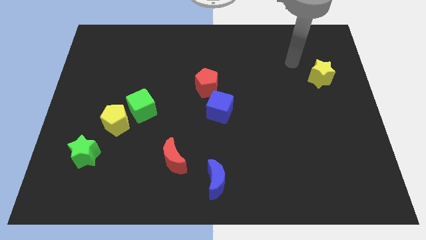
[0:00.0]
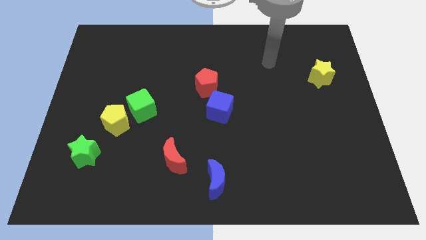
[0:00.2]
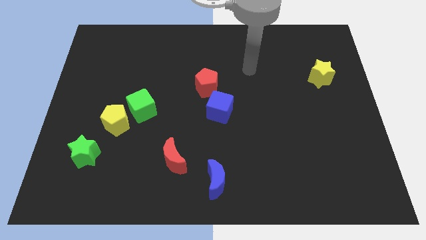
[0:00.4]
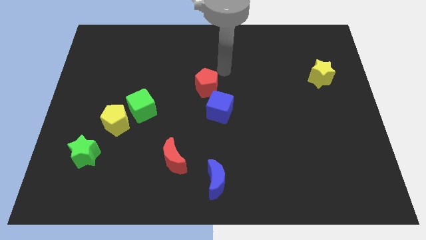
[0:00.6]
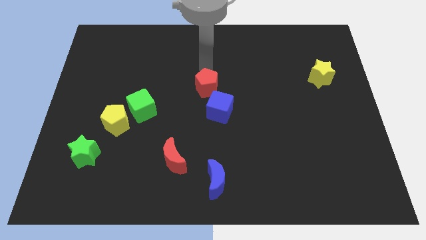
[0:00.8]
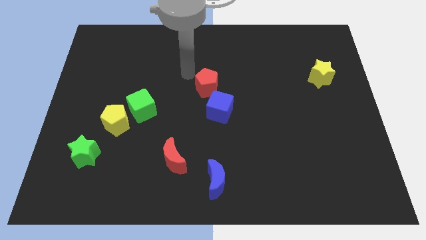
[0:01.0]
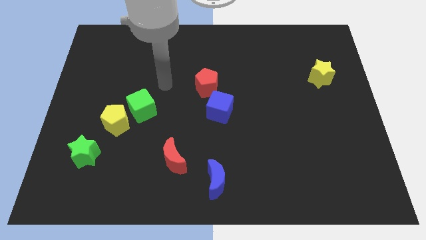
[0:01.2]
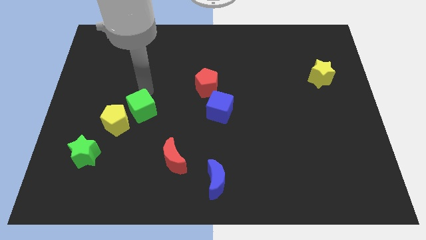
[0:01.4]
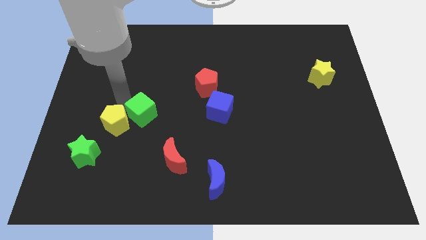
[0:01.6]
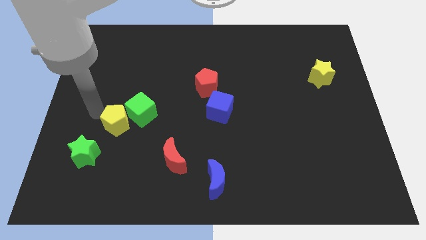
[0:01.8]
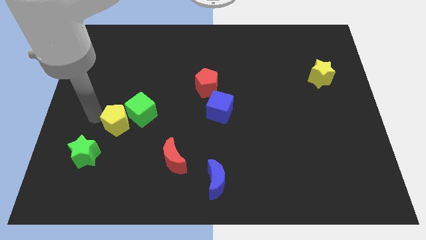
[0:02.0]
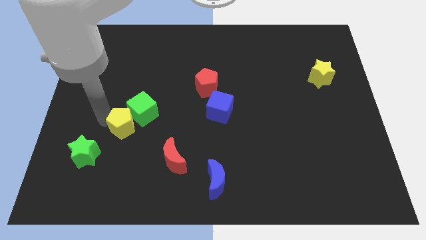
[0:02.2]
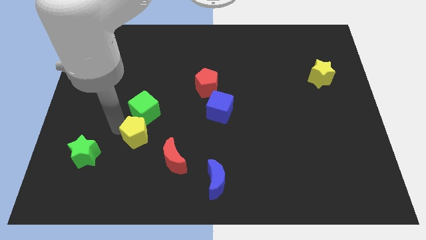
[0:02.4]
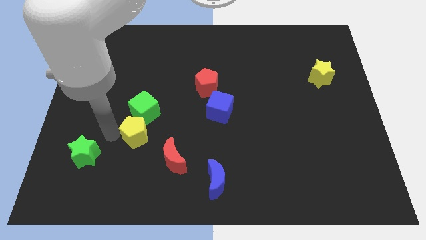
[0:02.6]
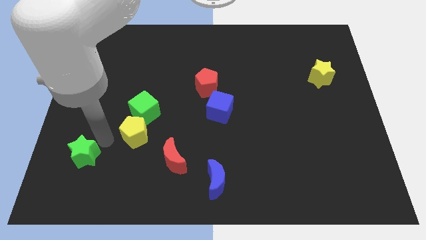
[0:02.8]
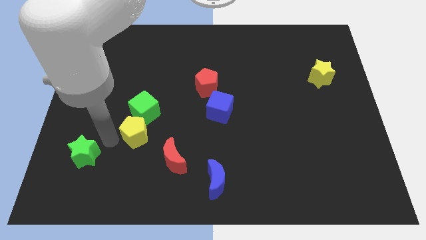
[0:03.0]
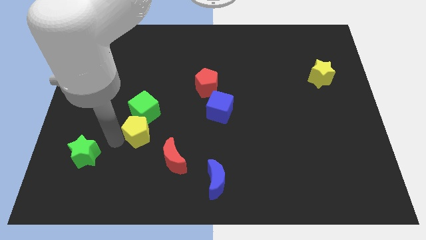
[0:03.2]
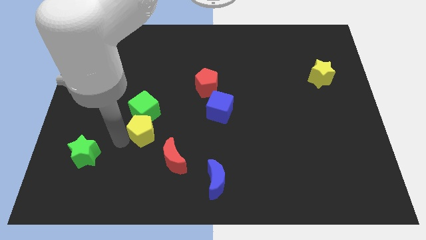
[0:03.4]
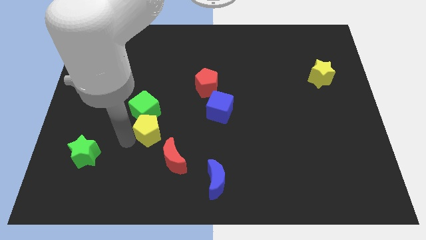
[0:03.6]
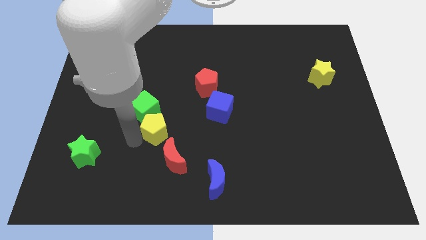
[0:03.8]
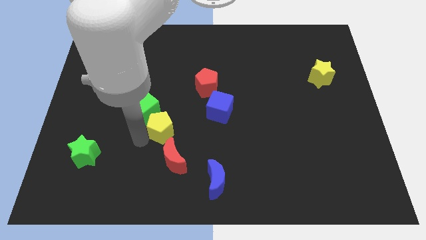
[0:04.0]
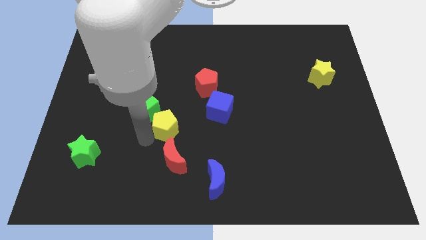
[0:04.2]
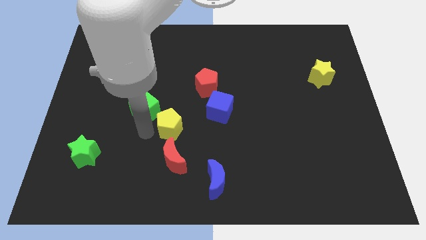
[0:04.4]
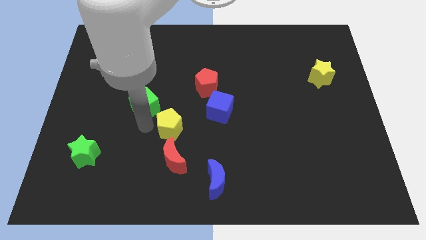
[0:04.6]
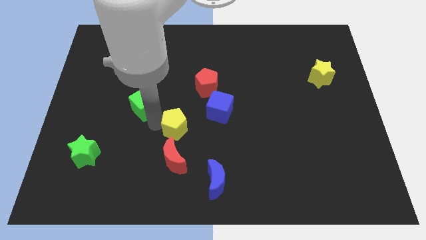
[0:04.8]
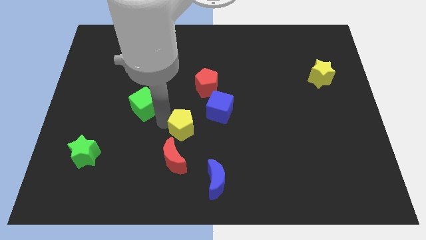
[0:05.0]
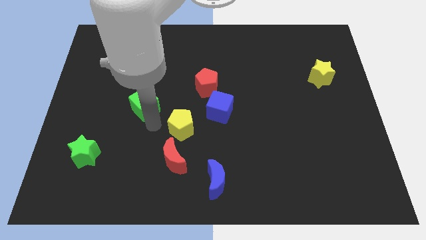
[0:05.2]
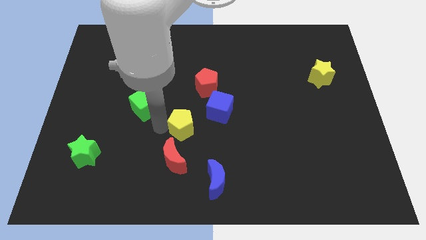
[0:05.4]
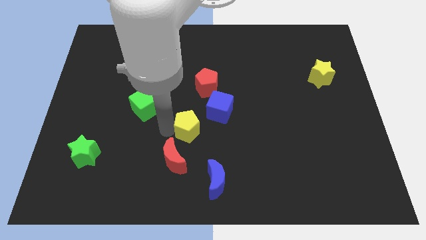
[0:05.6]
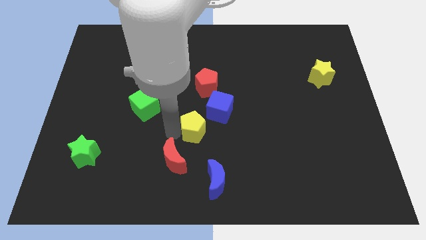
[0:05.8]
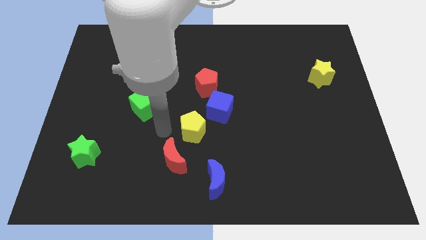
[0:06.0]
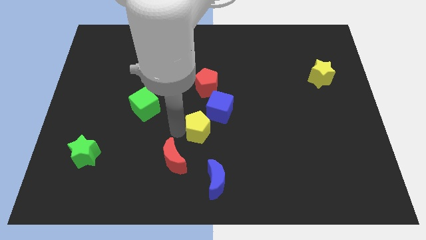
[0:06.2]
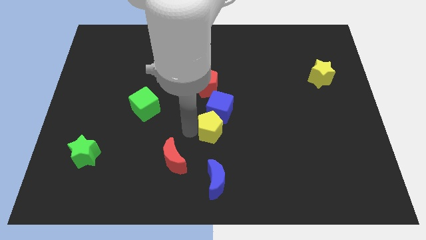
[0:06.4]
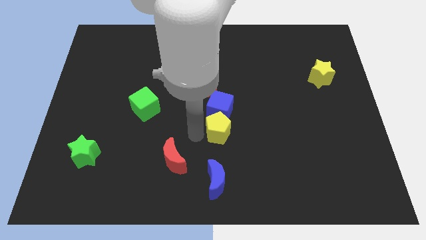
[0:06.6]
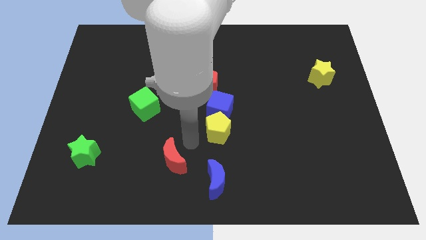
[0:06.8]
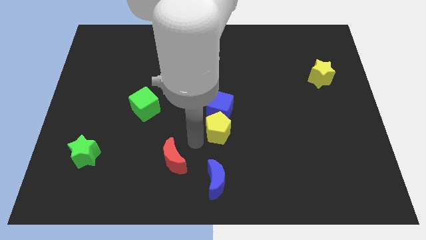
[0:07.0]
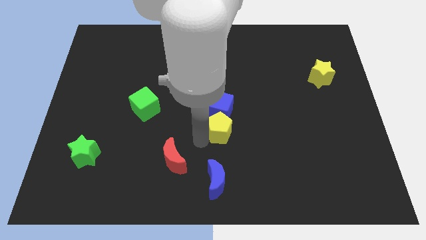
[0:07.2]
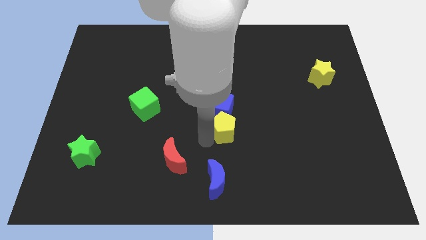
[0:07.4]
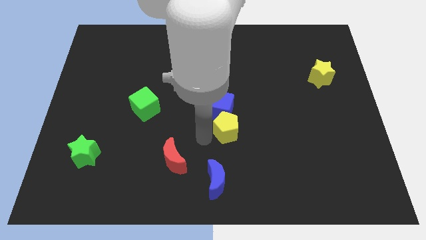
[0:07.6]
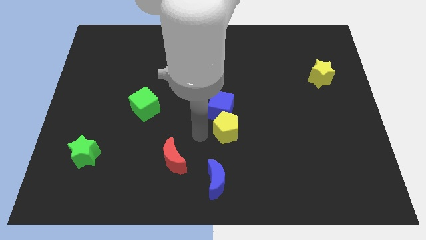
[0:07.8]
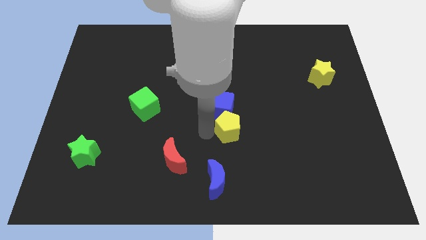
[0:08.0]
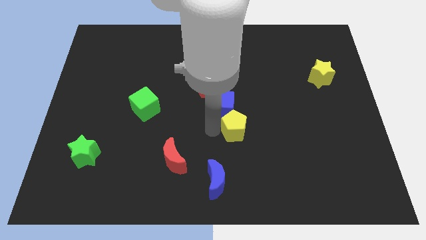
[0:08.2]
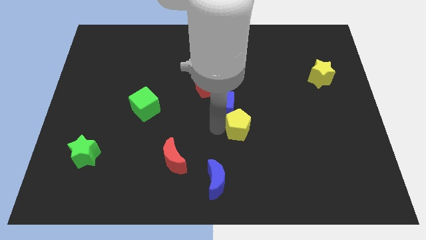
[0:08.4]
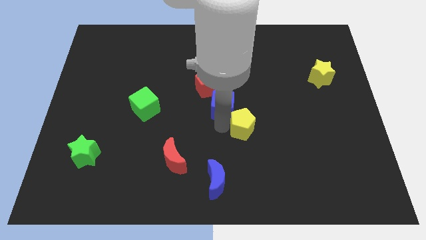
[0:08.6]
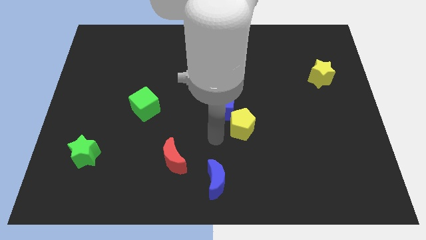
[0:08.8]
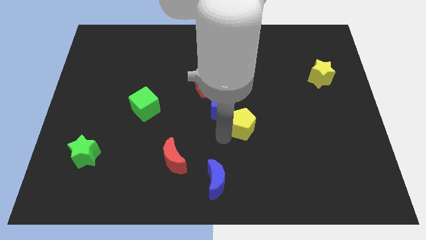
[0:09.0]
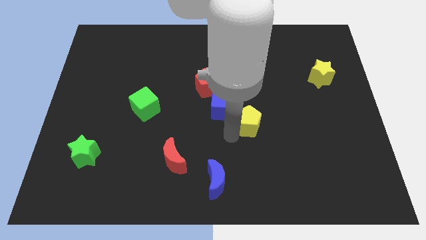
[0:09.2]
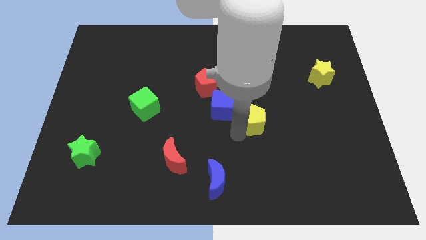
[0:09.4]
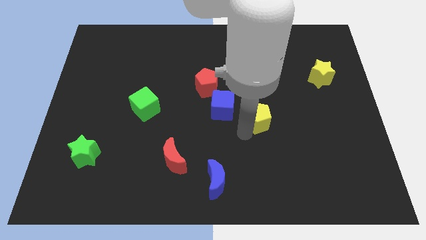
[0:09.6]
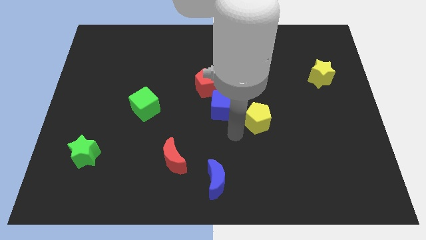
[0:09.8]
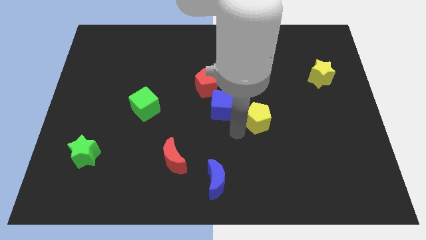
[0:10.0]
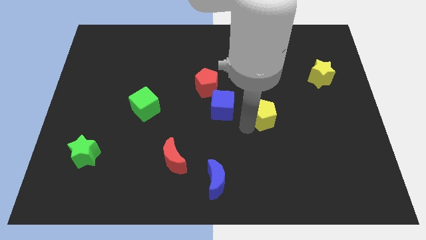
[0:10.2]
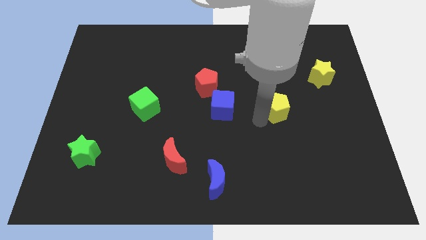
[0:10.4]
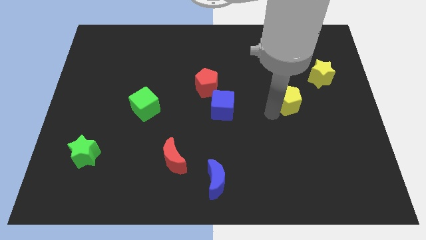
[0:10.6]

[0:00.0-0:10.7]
move the yellow pentagon to the bottom left of the yellow star

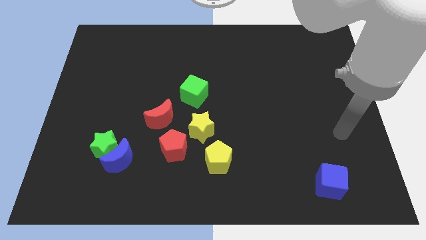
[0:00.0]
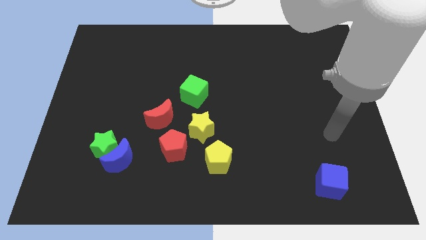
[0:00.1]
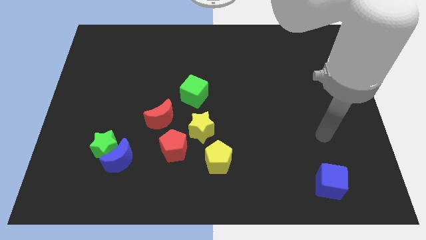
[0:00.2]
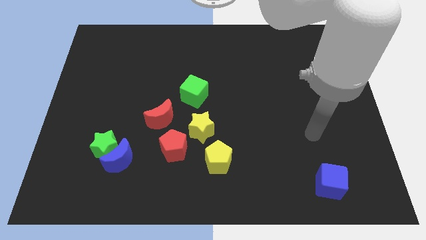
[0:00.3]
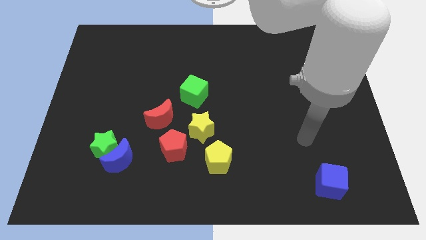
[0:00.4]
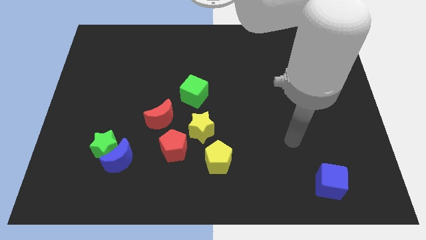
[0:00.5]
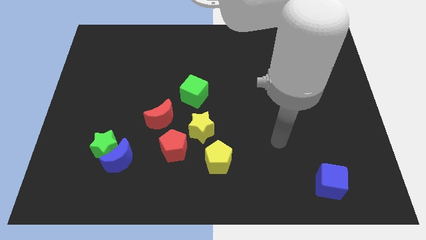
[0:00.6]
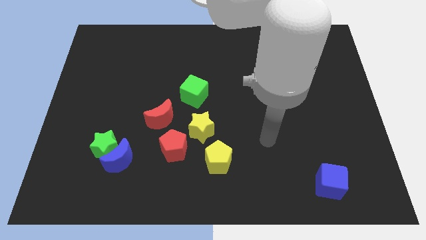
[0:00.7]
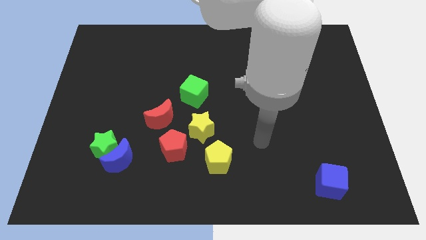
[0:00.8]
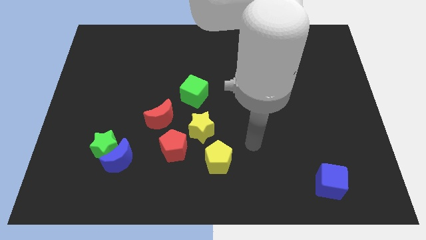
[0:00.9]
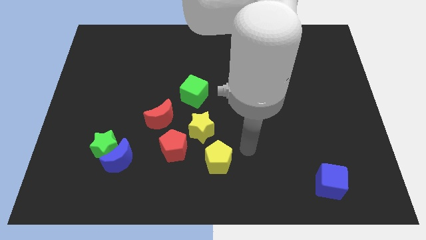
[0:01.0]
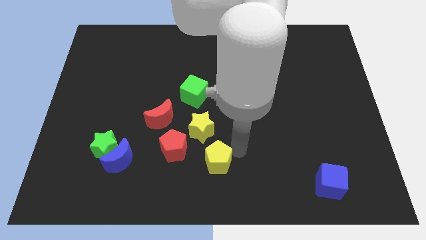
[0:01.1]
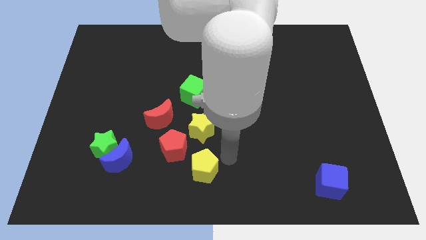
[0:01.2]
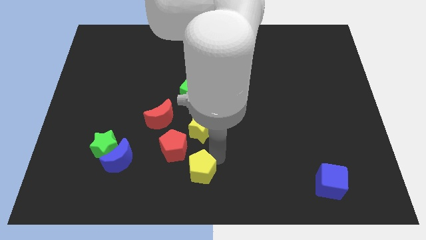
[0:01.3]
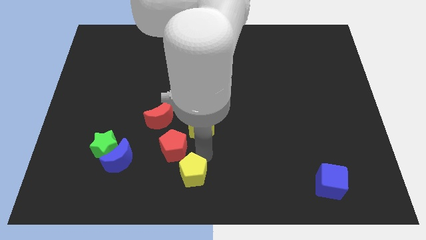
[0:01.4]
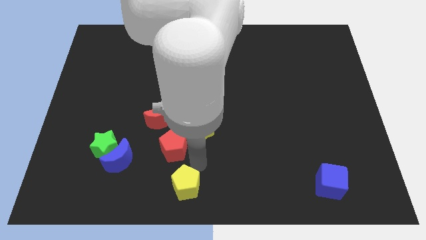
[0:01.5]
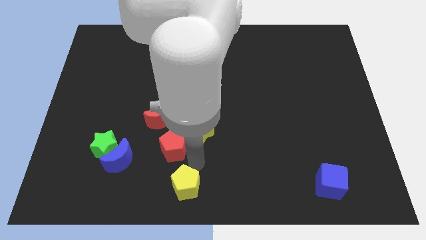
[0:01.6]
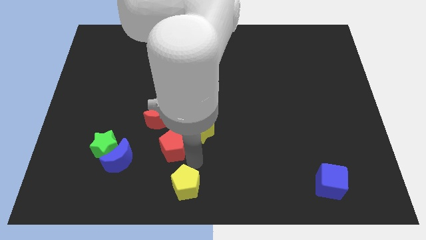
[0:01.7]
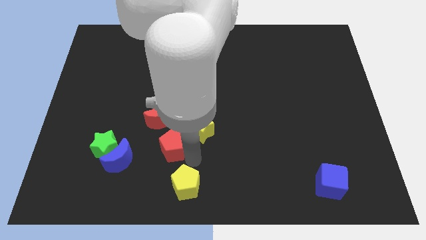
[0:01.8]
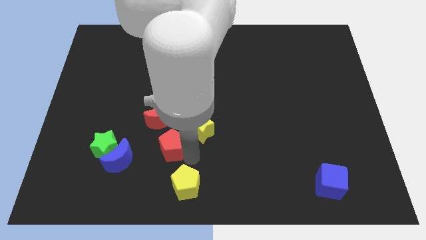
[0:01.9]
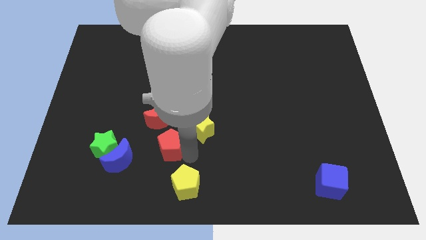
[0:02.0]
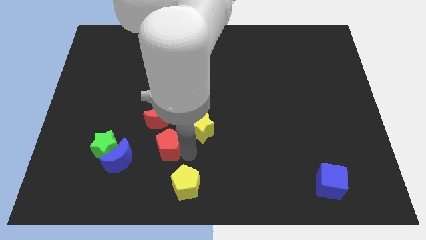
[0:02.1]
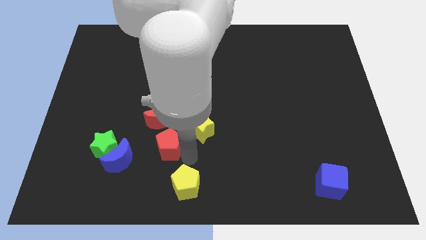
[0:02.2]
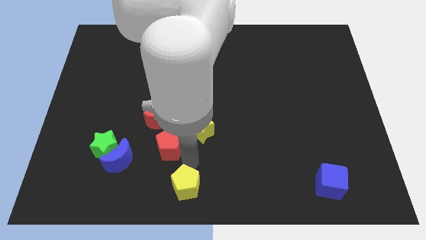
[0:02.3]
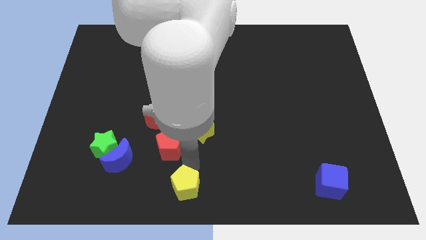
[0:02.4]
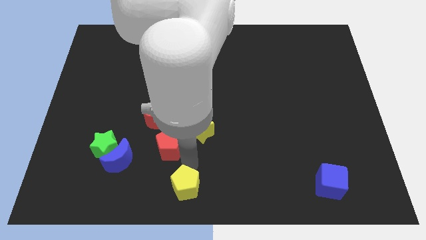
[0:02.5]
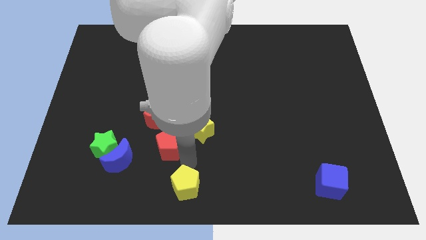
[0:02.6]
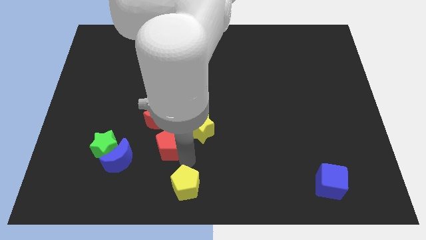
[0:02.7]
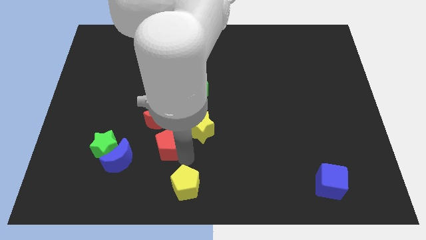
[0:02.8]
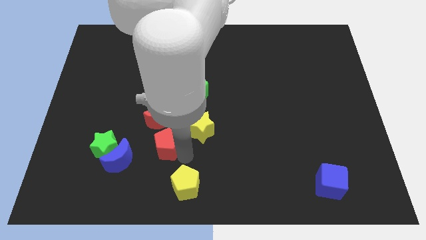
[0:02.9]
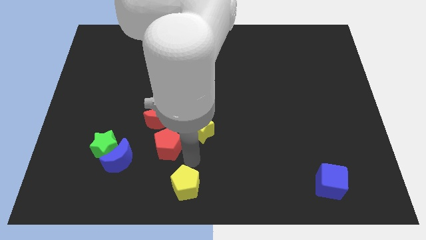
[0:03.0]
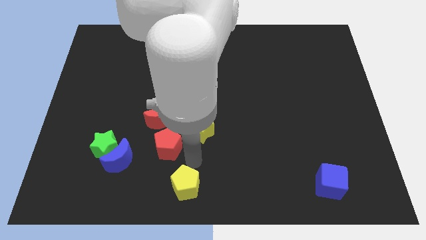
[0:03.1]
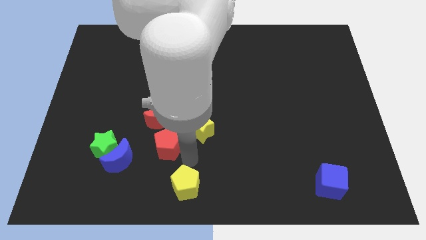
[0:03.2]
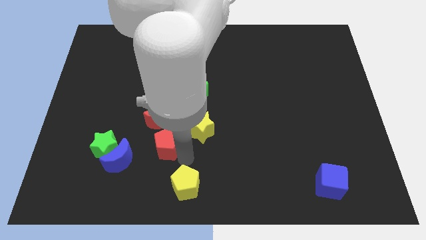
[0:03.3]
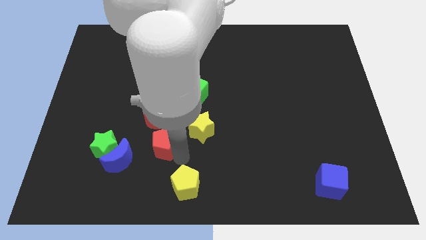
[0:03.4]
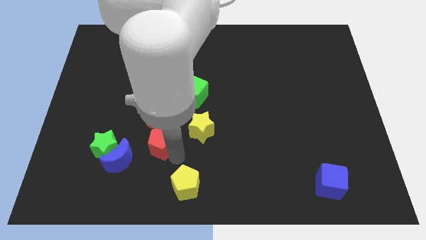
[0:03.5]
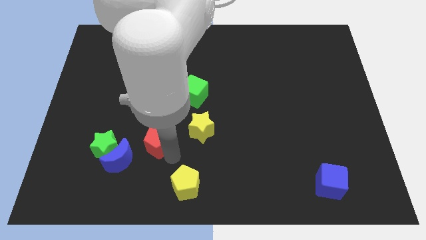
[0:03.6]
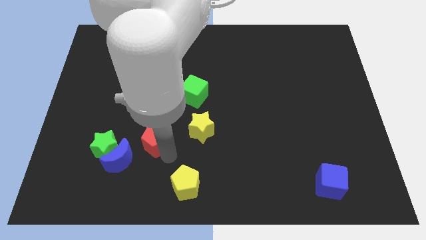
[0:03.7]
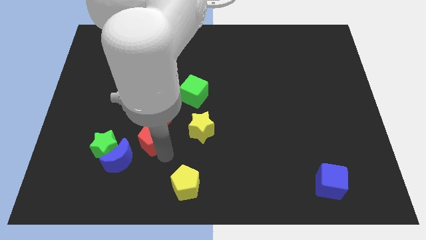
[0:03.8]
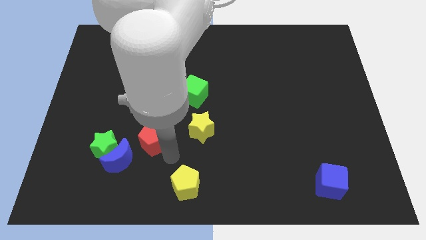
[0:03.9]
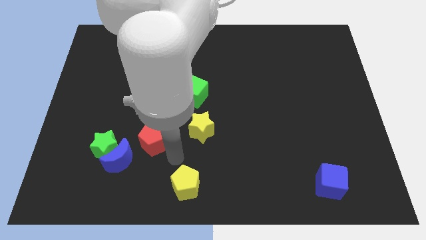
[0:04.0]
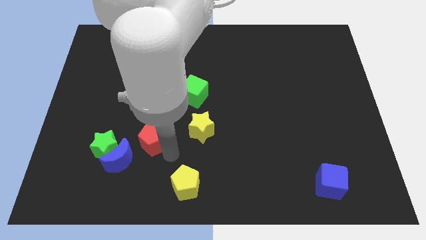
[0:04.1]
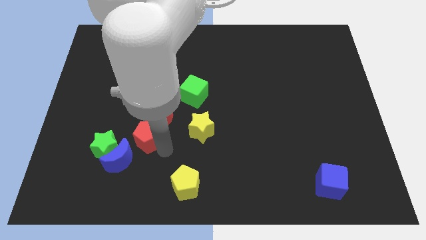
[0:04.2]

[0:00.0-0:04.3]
put the red pentagon to the top right side of the green star
